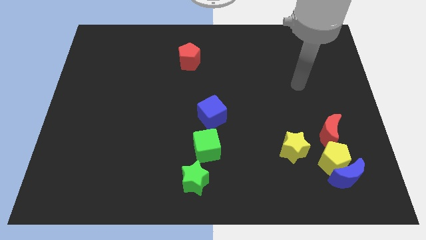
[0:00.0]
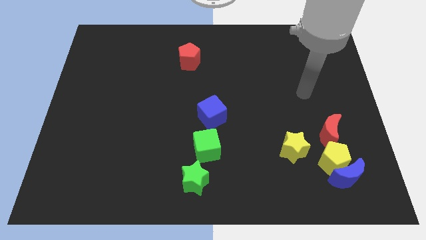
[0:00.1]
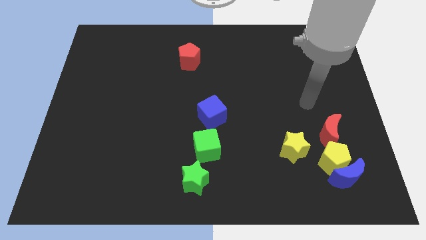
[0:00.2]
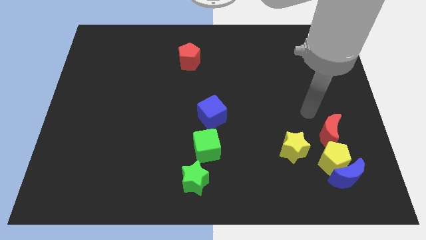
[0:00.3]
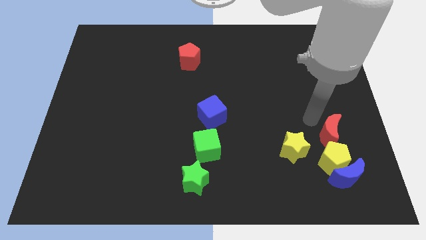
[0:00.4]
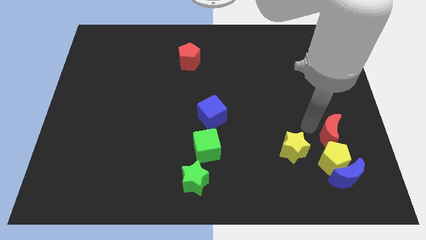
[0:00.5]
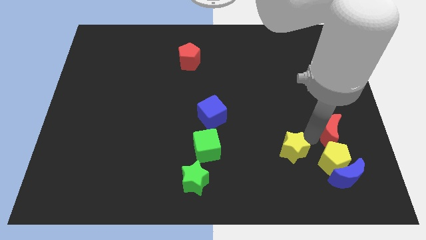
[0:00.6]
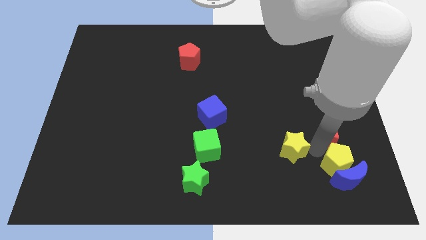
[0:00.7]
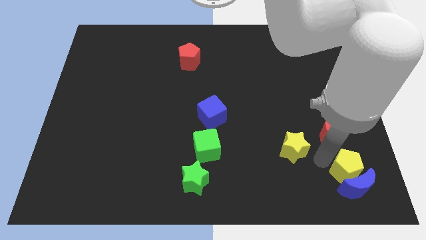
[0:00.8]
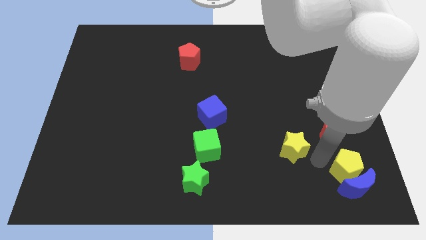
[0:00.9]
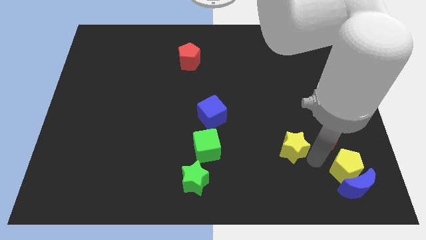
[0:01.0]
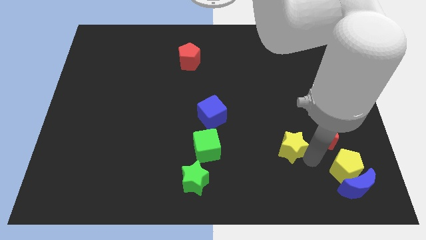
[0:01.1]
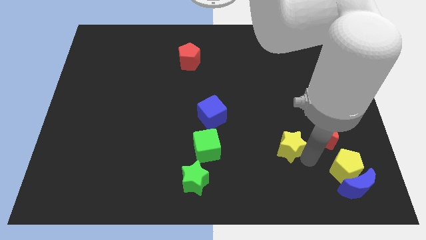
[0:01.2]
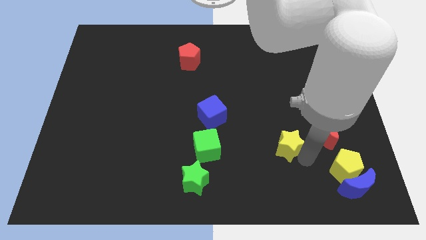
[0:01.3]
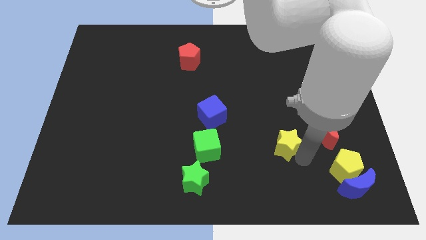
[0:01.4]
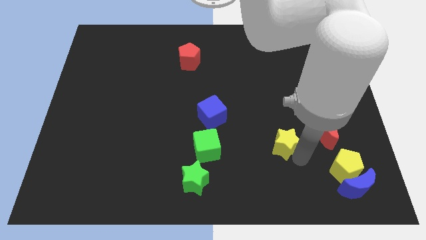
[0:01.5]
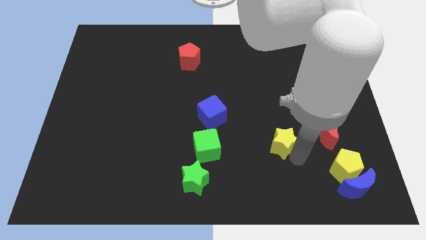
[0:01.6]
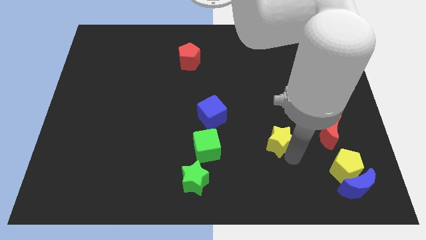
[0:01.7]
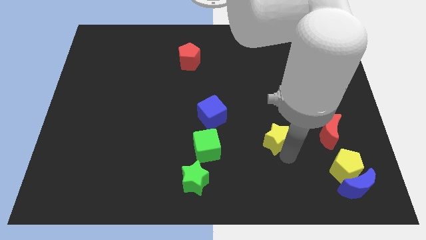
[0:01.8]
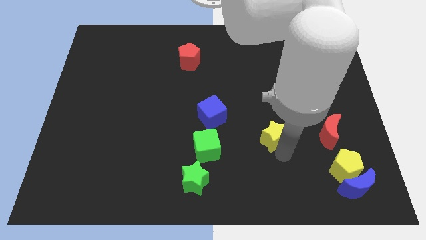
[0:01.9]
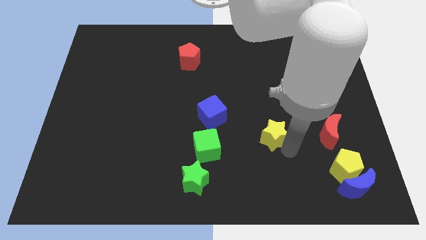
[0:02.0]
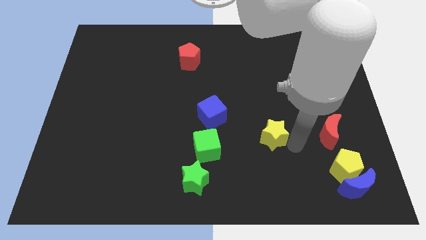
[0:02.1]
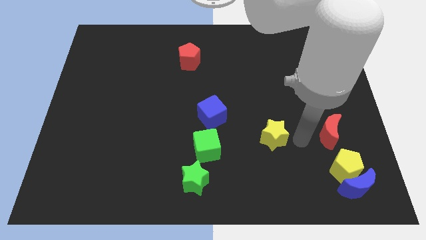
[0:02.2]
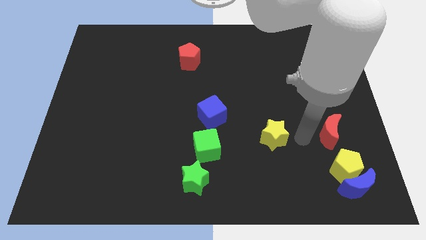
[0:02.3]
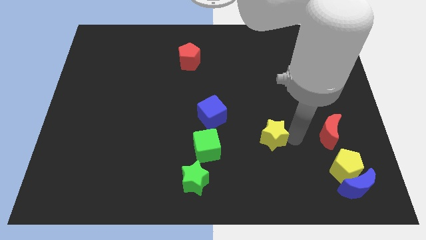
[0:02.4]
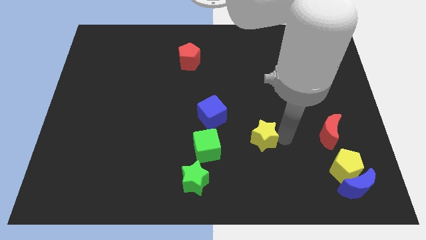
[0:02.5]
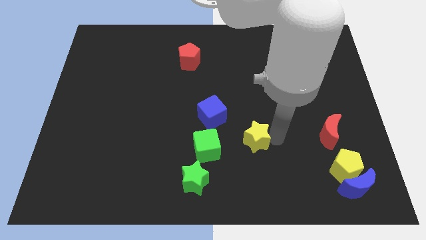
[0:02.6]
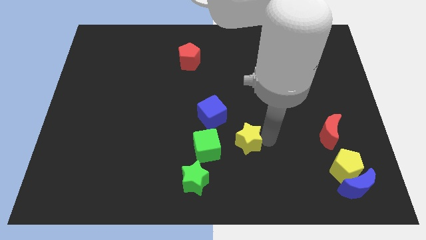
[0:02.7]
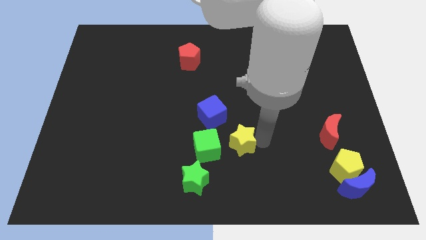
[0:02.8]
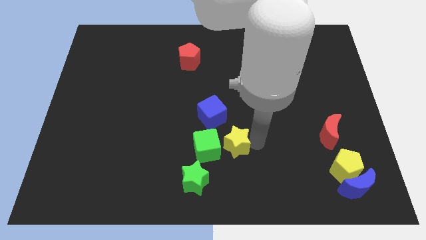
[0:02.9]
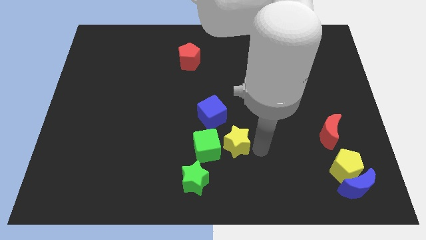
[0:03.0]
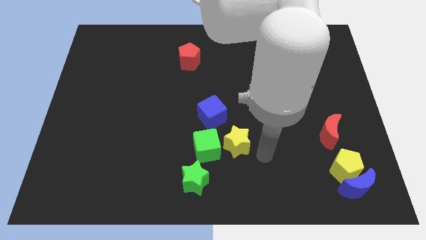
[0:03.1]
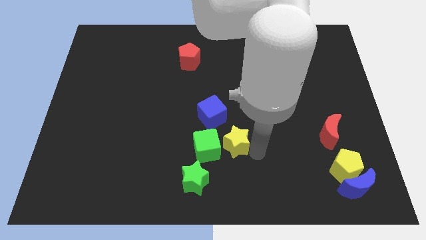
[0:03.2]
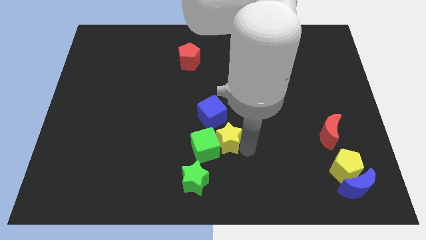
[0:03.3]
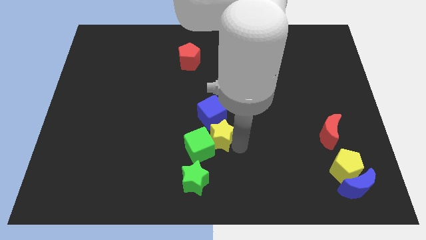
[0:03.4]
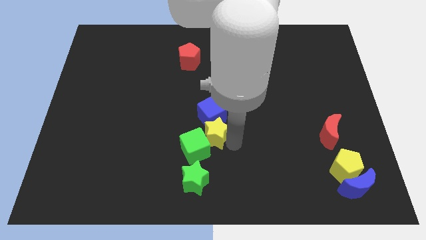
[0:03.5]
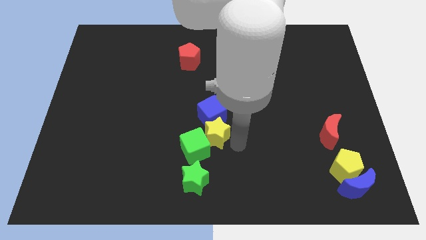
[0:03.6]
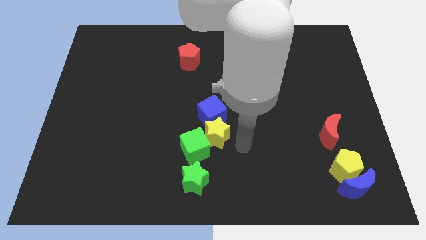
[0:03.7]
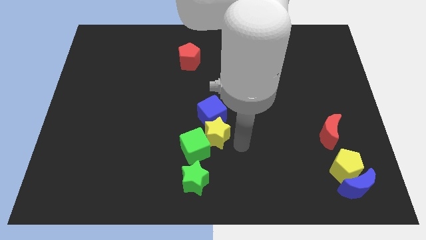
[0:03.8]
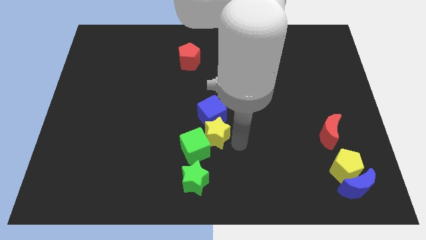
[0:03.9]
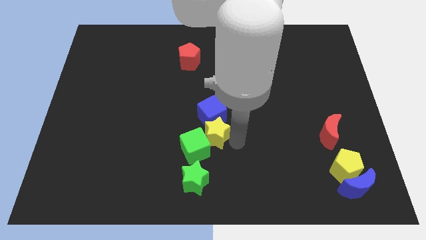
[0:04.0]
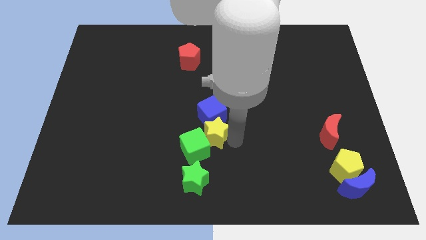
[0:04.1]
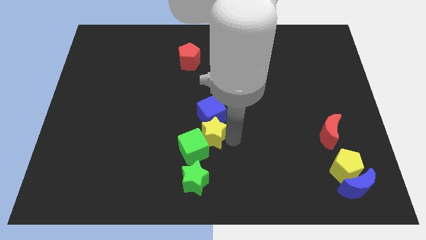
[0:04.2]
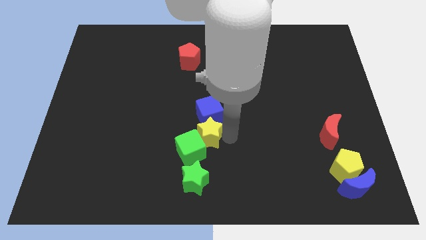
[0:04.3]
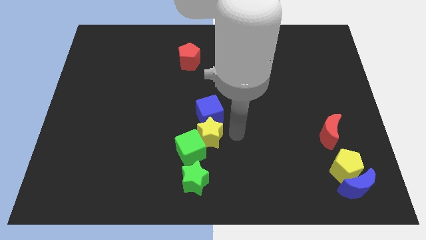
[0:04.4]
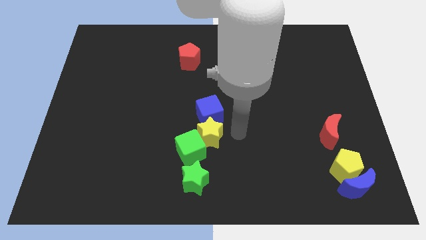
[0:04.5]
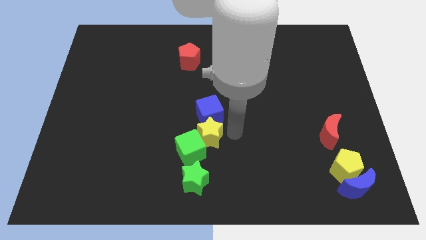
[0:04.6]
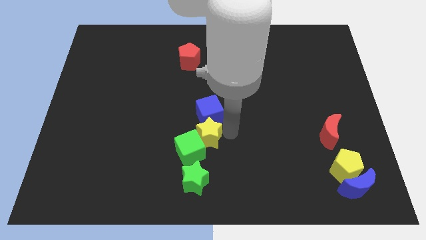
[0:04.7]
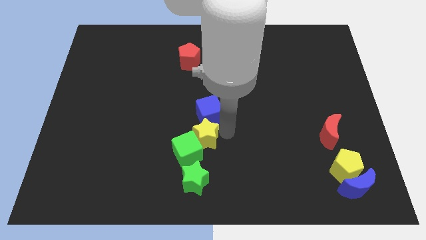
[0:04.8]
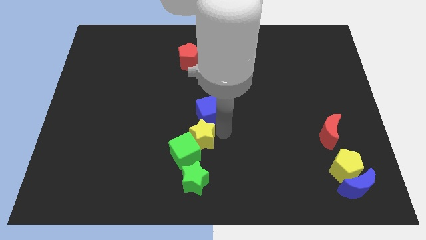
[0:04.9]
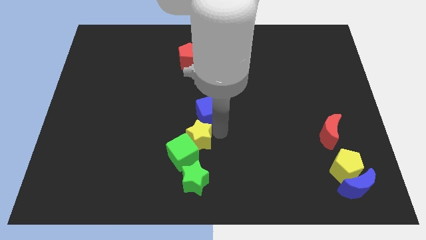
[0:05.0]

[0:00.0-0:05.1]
slide the yellow star left

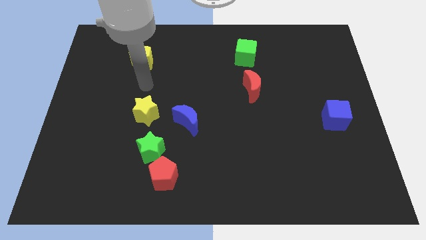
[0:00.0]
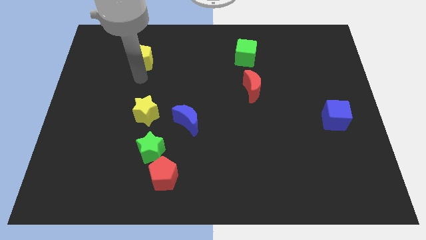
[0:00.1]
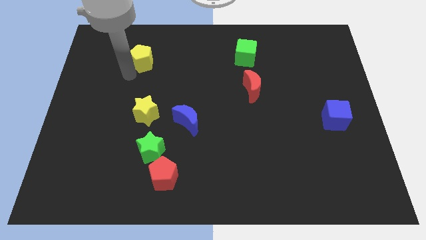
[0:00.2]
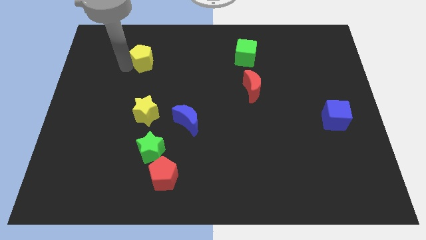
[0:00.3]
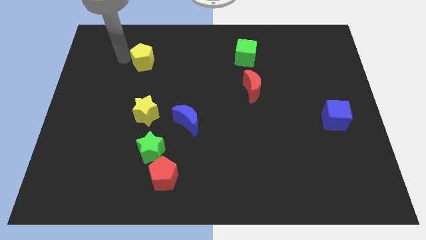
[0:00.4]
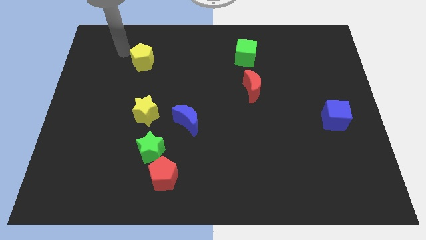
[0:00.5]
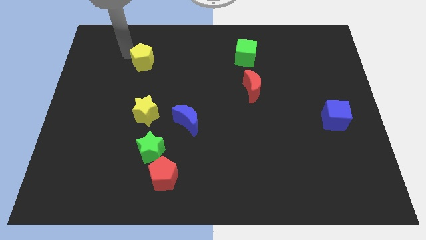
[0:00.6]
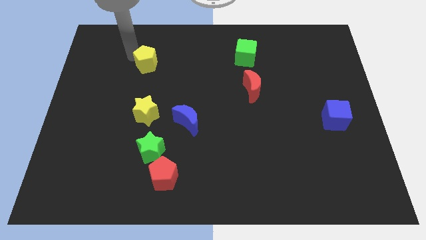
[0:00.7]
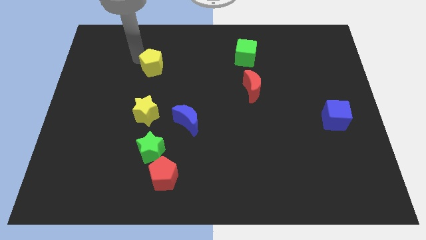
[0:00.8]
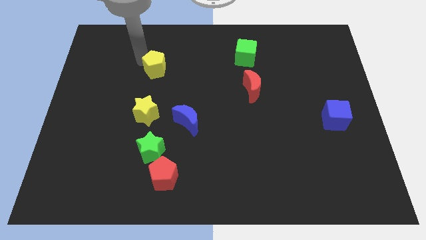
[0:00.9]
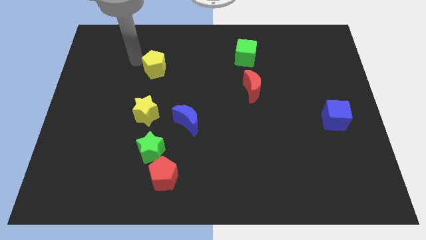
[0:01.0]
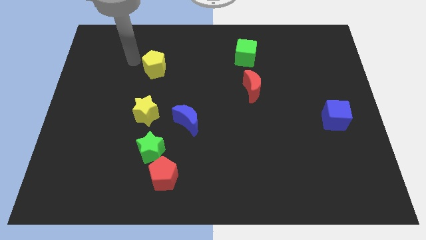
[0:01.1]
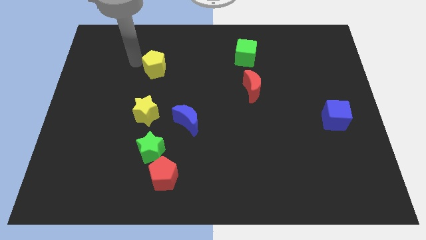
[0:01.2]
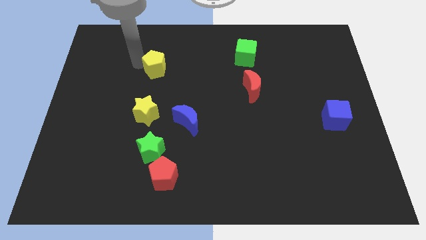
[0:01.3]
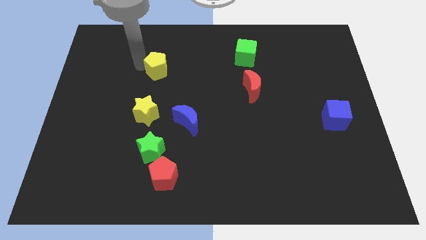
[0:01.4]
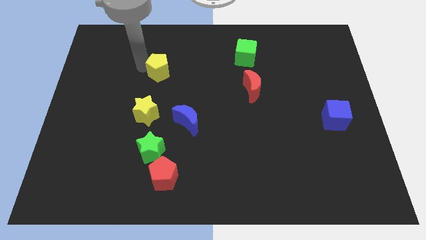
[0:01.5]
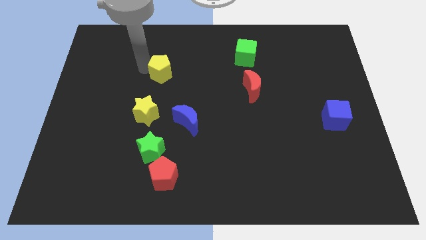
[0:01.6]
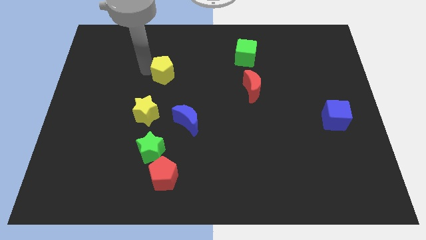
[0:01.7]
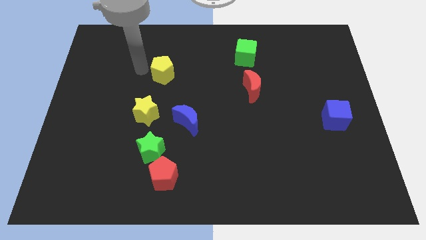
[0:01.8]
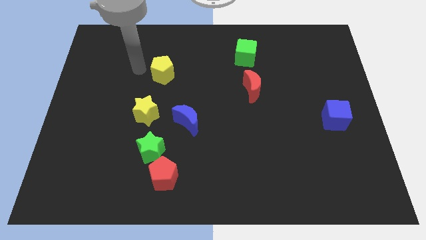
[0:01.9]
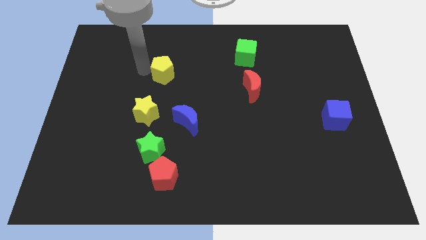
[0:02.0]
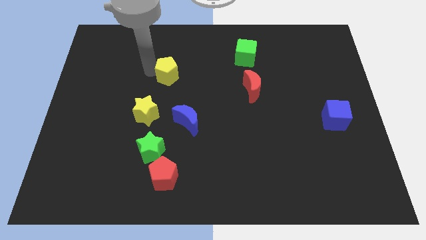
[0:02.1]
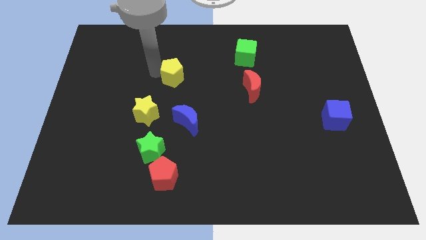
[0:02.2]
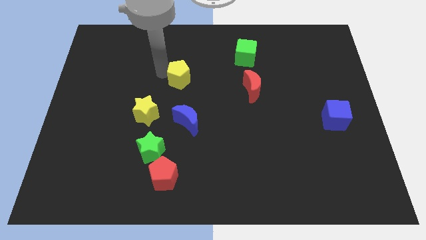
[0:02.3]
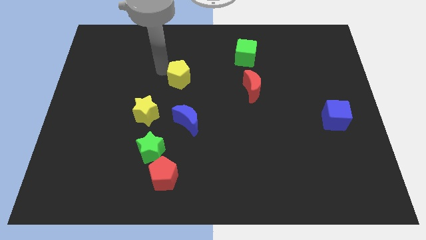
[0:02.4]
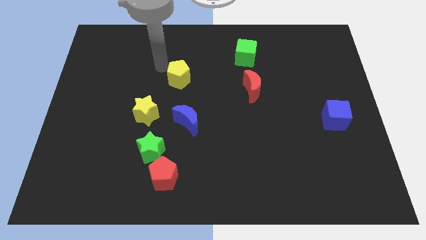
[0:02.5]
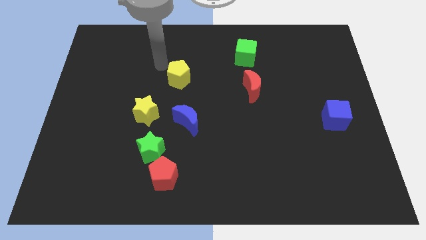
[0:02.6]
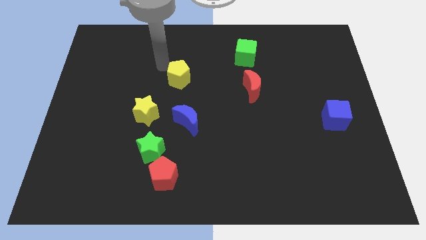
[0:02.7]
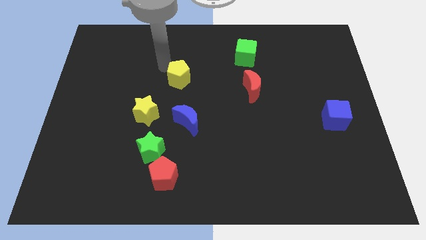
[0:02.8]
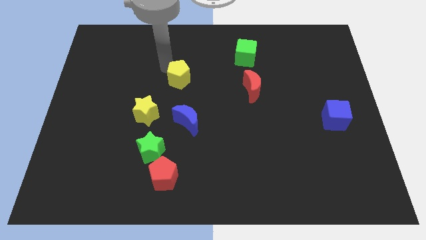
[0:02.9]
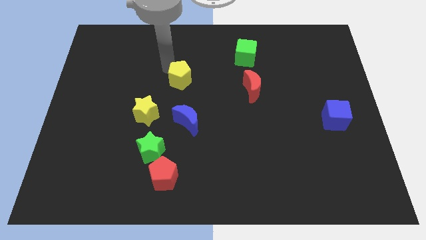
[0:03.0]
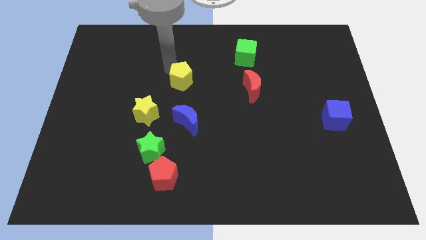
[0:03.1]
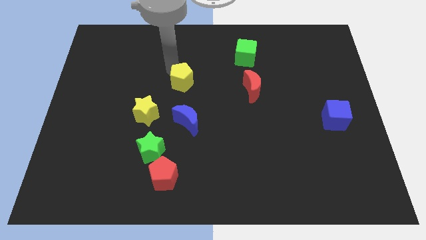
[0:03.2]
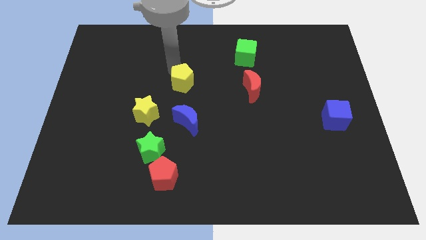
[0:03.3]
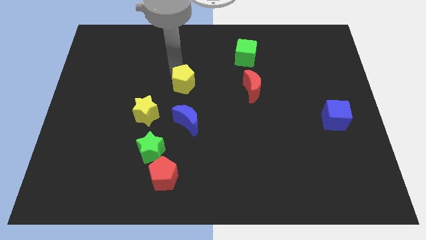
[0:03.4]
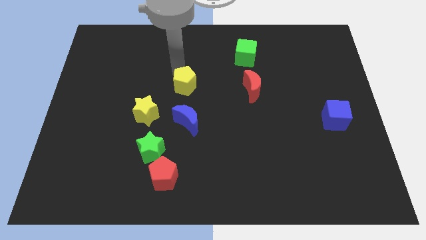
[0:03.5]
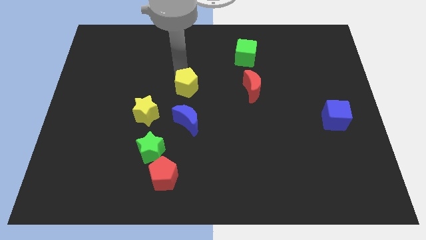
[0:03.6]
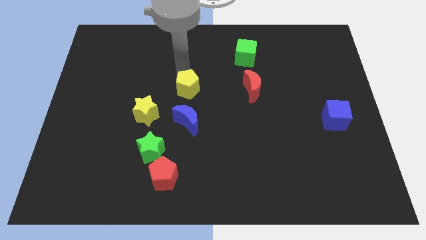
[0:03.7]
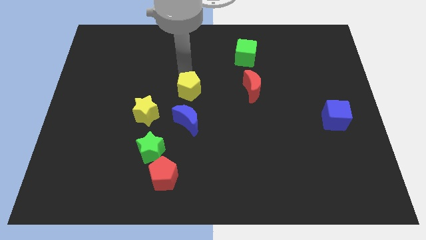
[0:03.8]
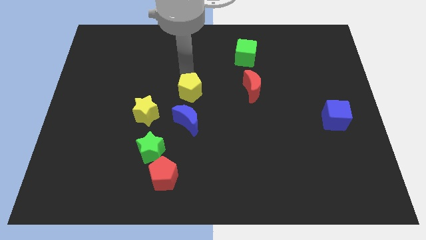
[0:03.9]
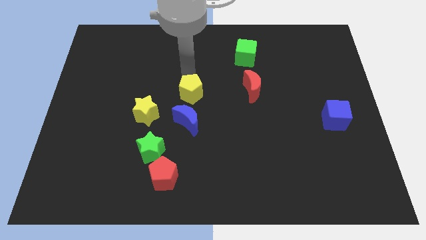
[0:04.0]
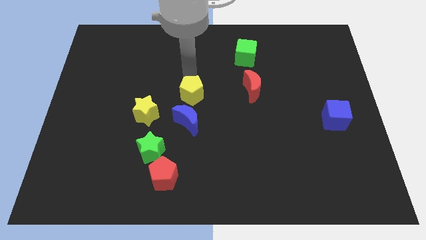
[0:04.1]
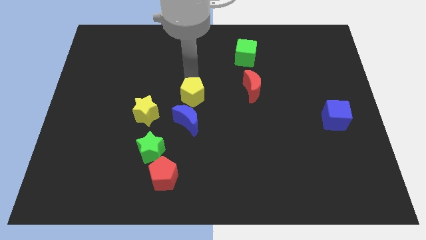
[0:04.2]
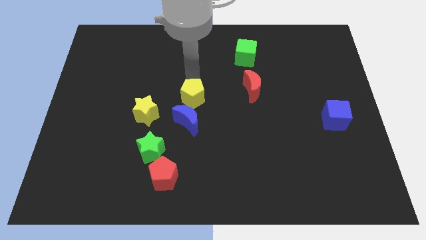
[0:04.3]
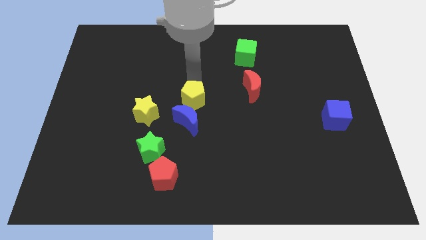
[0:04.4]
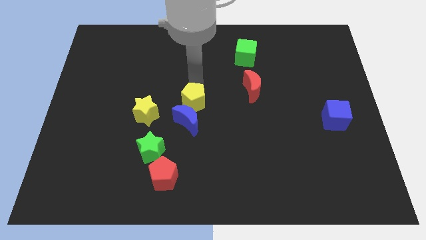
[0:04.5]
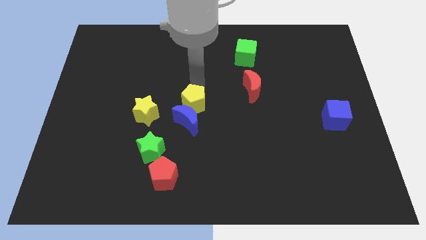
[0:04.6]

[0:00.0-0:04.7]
slide the yellow pentagon diagonally down and to the right
